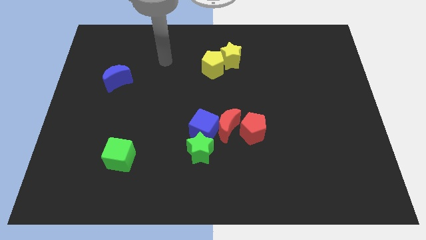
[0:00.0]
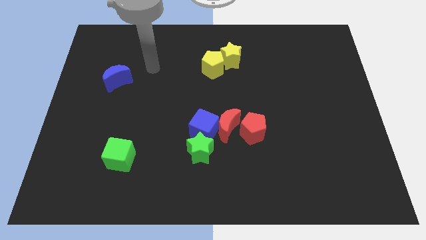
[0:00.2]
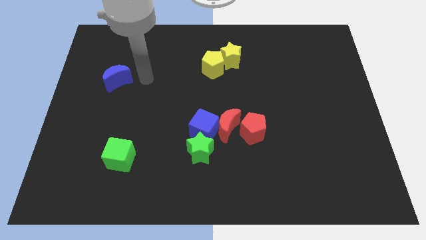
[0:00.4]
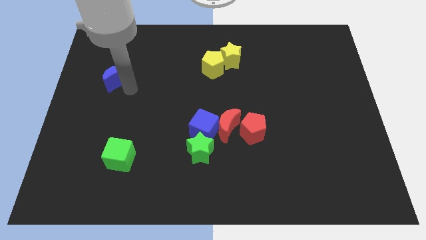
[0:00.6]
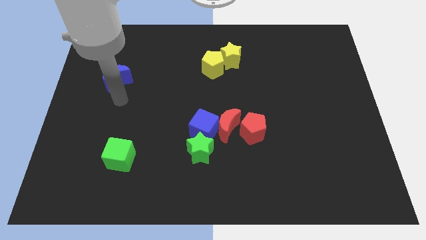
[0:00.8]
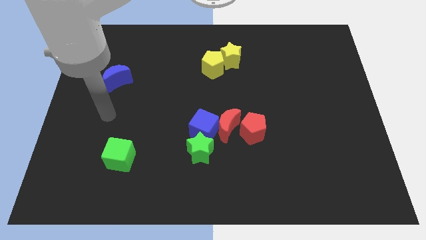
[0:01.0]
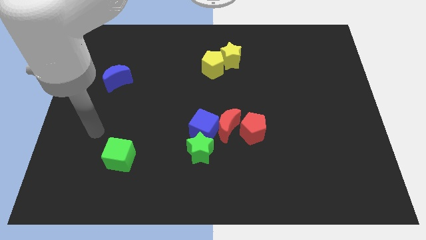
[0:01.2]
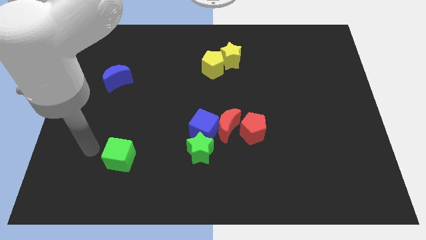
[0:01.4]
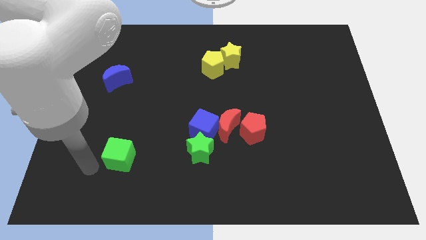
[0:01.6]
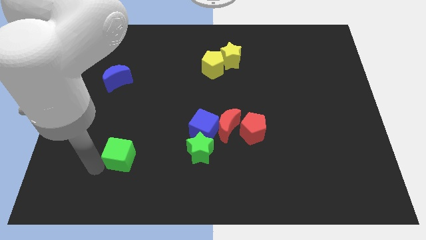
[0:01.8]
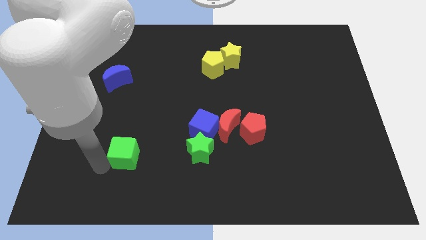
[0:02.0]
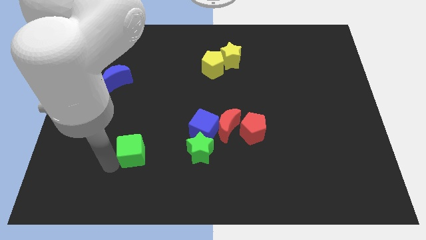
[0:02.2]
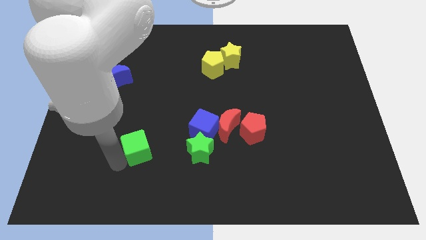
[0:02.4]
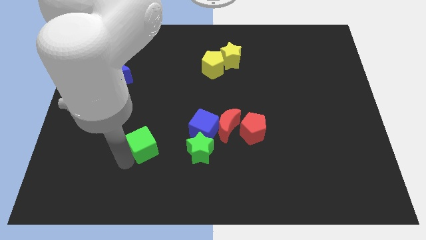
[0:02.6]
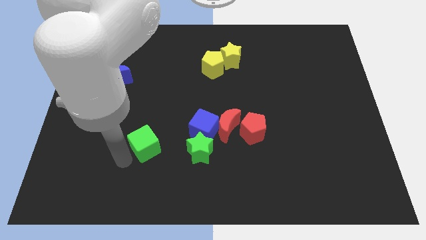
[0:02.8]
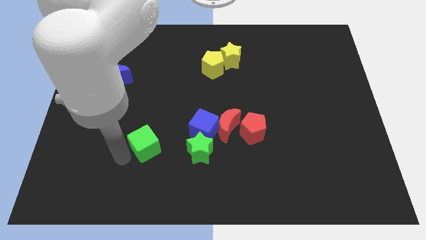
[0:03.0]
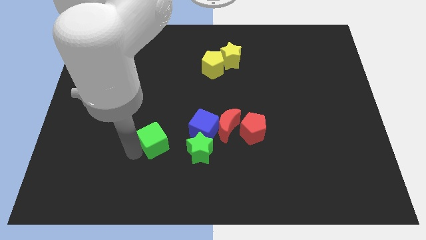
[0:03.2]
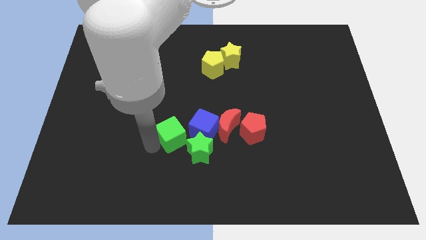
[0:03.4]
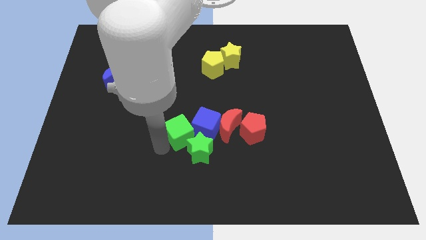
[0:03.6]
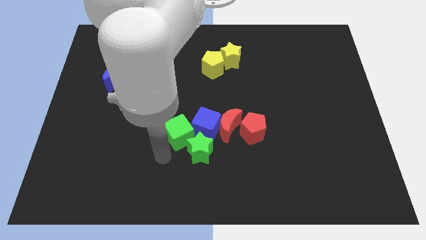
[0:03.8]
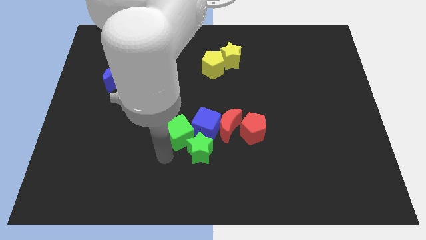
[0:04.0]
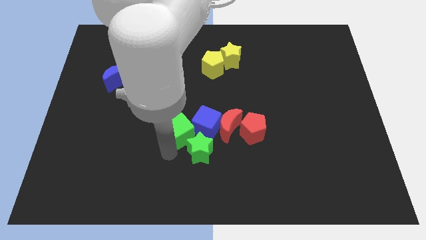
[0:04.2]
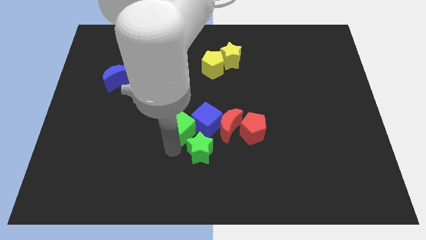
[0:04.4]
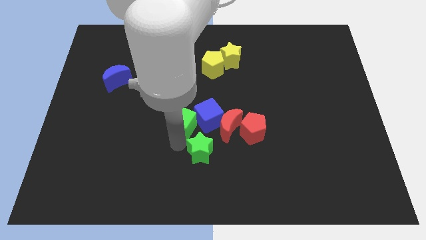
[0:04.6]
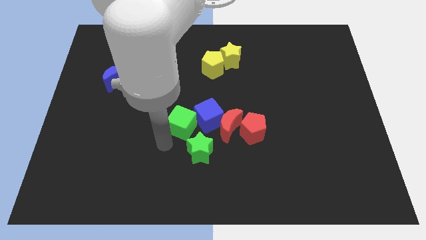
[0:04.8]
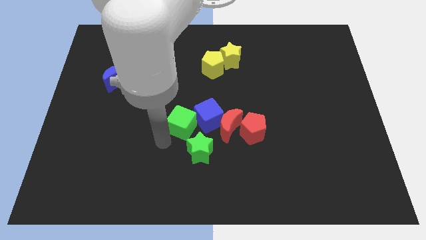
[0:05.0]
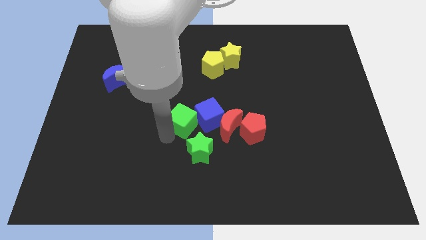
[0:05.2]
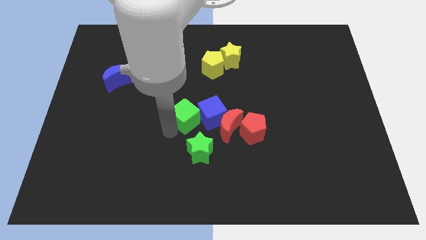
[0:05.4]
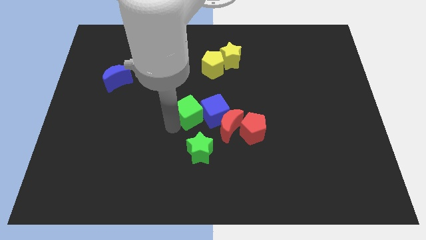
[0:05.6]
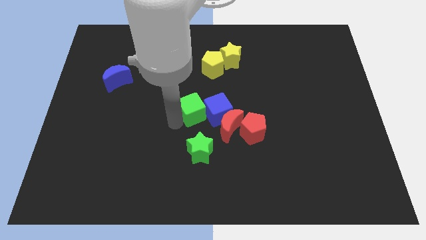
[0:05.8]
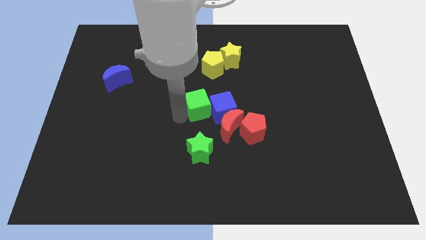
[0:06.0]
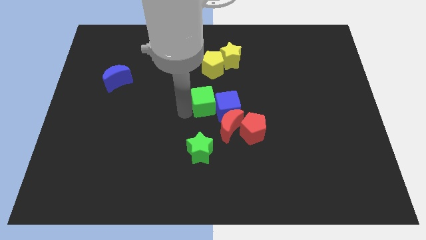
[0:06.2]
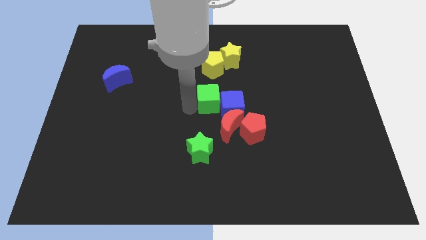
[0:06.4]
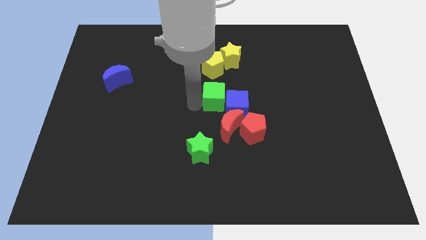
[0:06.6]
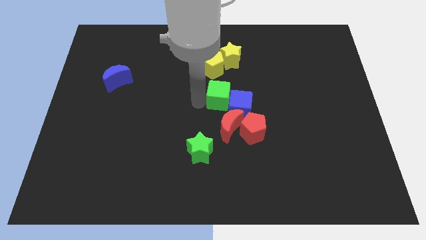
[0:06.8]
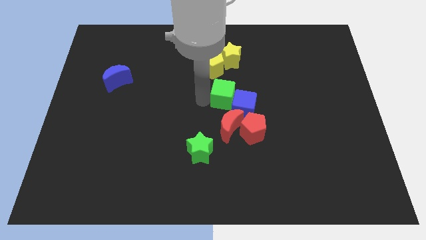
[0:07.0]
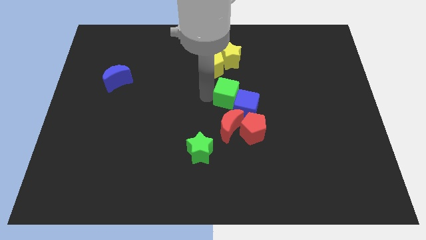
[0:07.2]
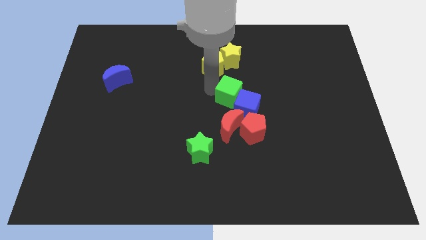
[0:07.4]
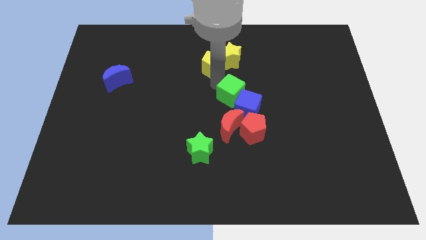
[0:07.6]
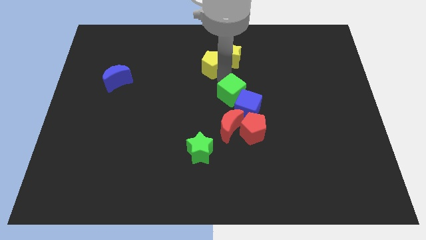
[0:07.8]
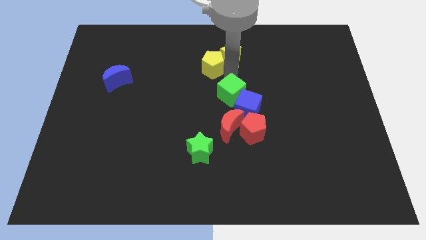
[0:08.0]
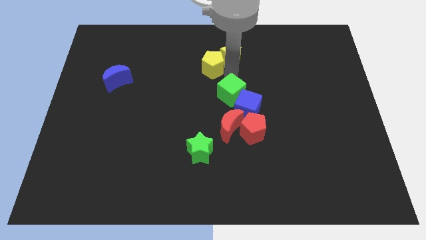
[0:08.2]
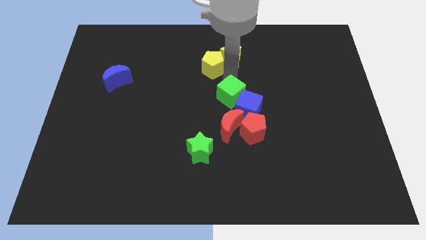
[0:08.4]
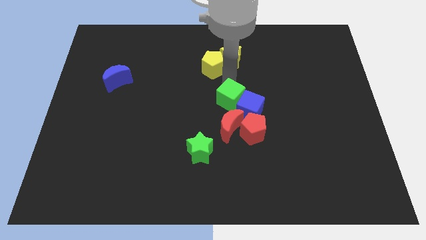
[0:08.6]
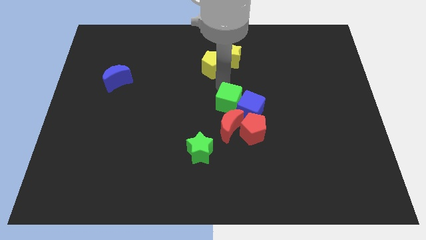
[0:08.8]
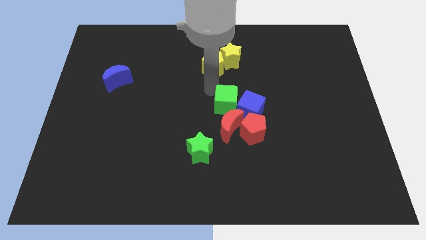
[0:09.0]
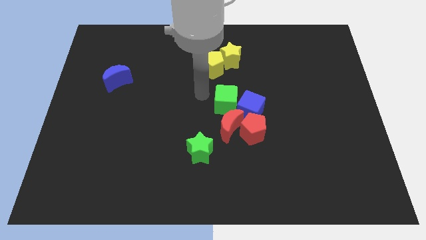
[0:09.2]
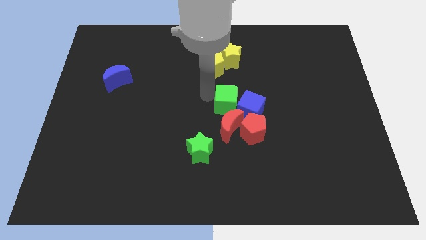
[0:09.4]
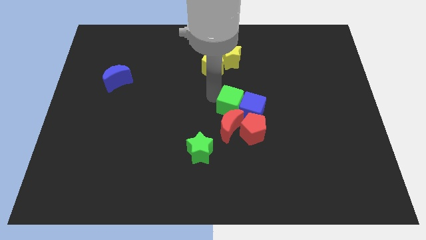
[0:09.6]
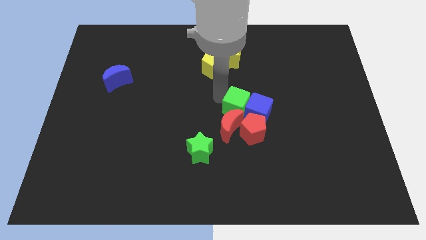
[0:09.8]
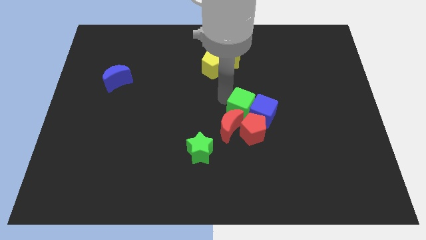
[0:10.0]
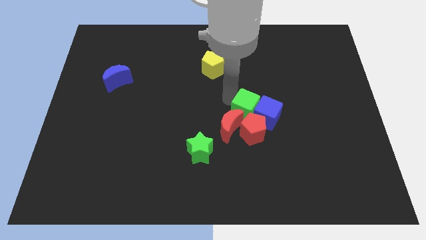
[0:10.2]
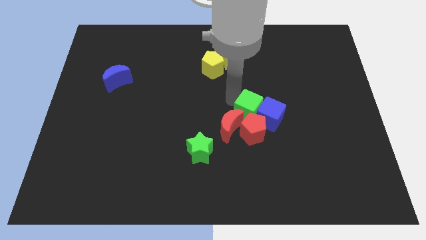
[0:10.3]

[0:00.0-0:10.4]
put the green cube to the top right side of the red pentagon

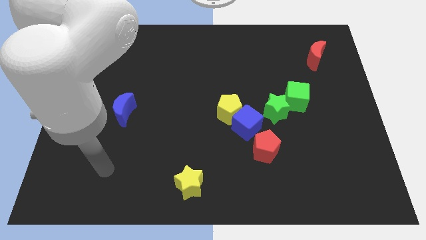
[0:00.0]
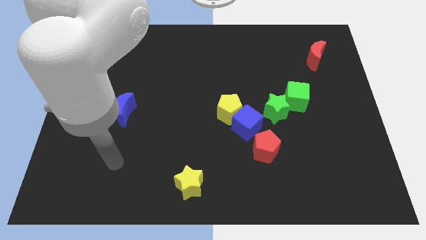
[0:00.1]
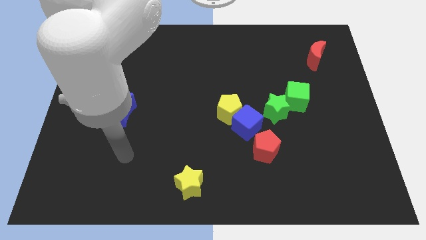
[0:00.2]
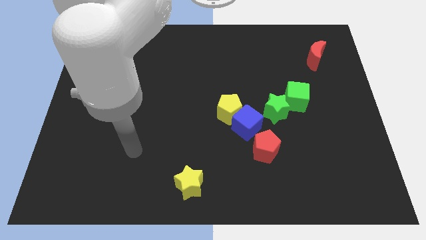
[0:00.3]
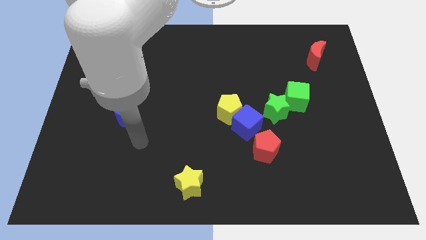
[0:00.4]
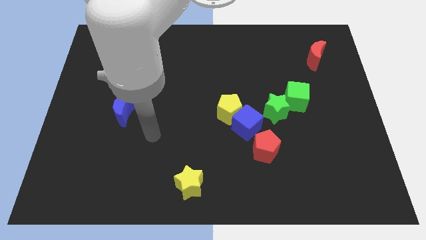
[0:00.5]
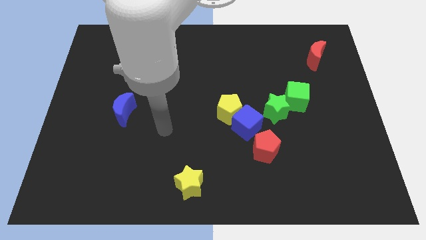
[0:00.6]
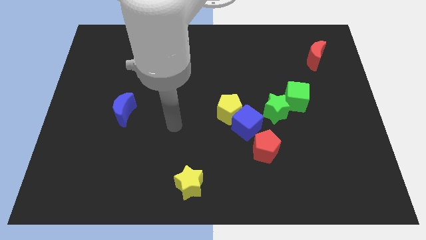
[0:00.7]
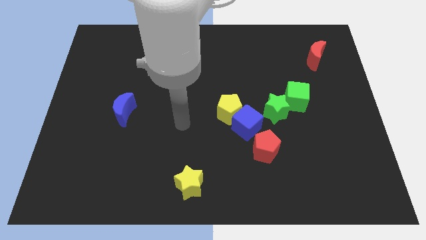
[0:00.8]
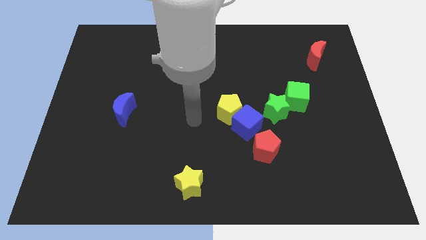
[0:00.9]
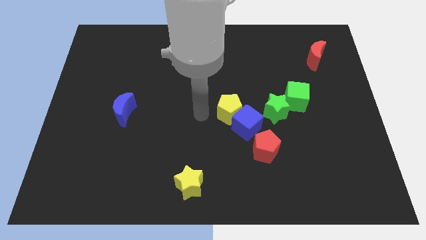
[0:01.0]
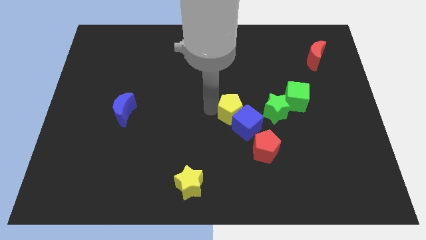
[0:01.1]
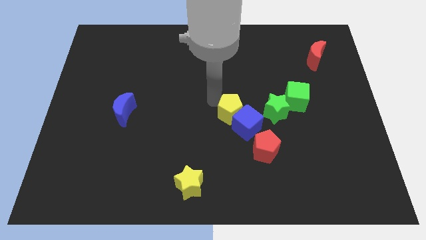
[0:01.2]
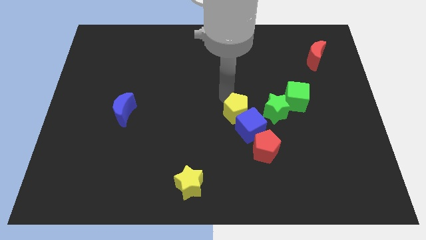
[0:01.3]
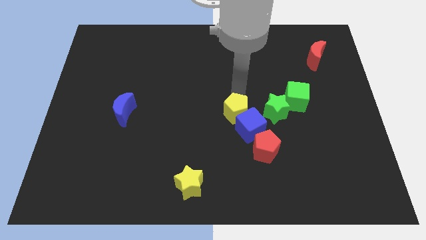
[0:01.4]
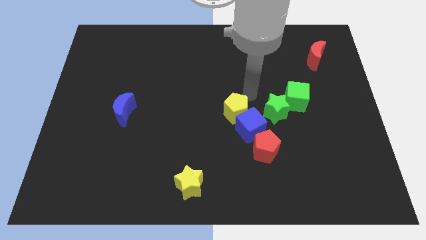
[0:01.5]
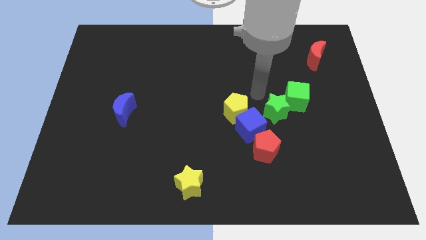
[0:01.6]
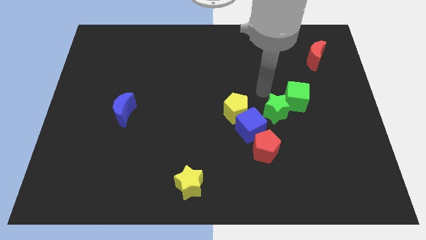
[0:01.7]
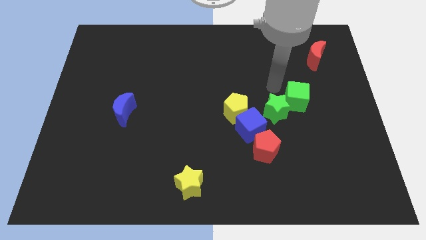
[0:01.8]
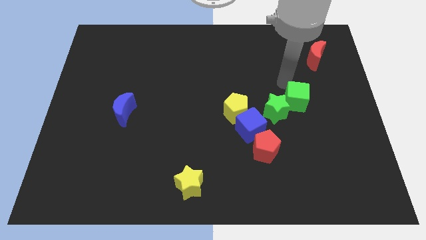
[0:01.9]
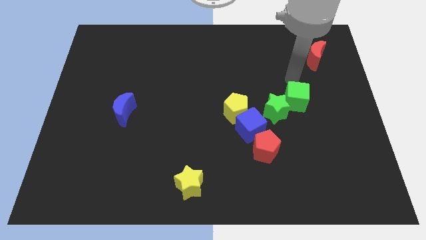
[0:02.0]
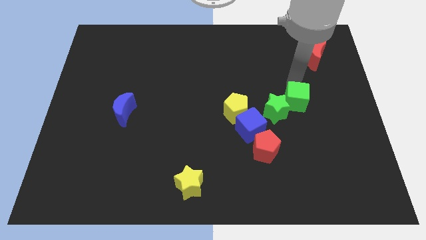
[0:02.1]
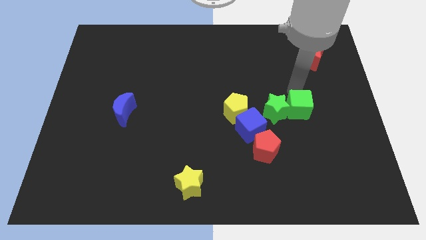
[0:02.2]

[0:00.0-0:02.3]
slide the green cube diagonally down and to the right of the green star

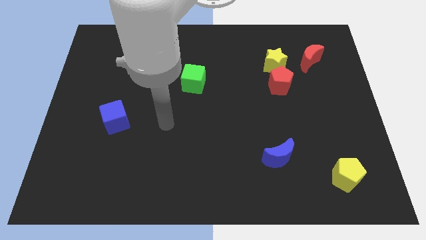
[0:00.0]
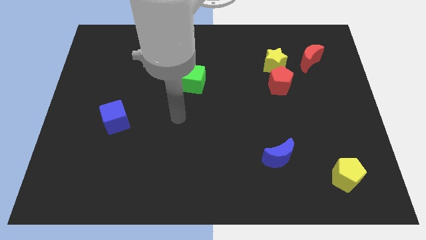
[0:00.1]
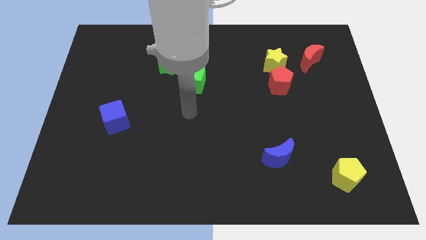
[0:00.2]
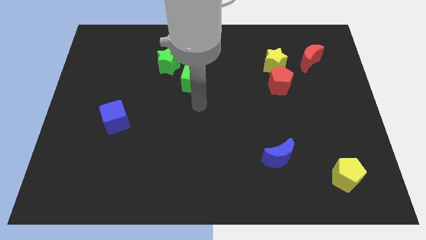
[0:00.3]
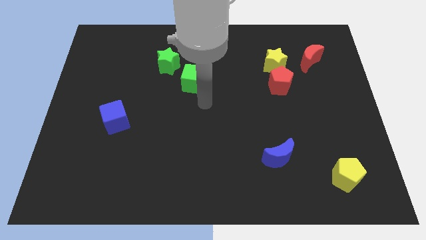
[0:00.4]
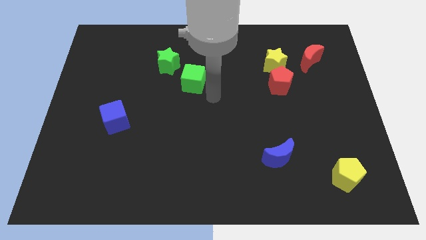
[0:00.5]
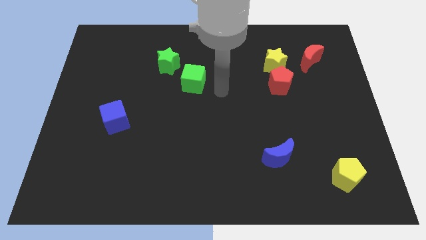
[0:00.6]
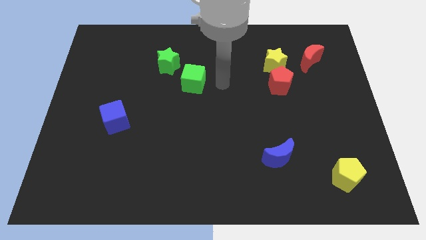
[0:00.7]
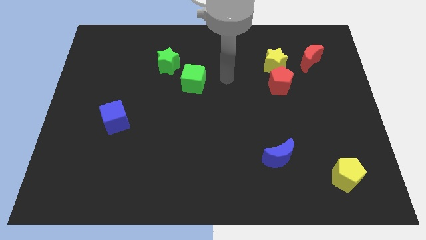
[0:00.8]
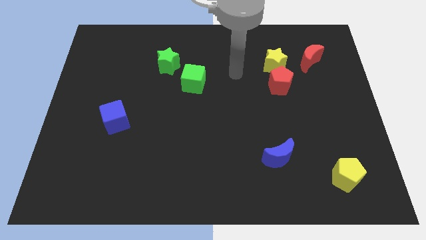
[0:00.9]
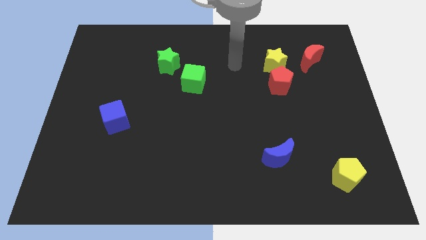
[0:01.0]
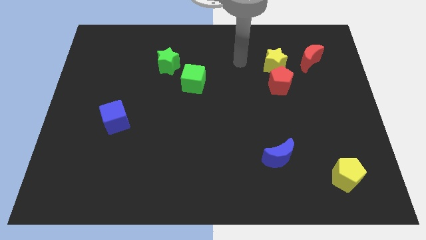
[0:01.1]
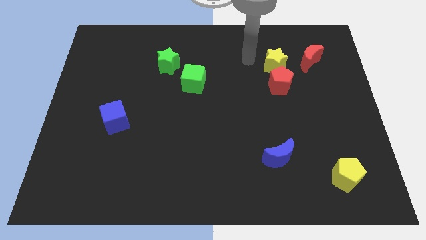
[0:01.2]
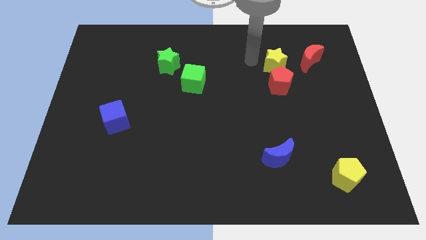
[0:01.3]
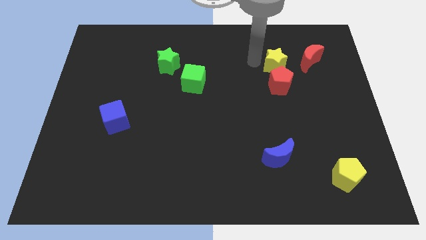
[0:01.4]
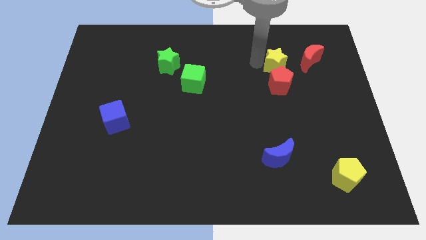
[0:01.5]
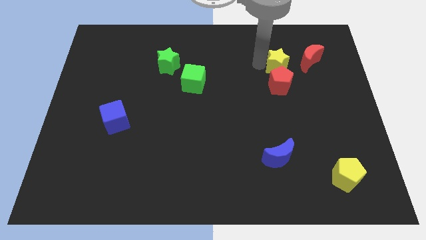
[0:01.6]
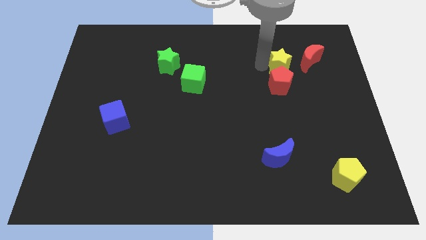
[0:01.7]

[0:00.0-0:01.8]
push the yellow star to the top right of the red pentagon
